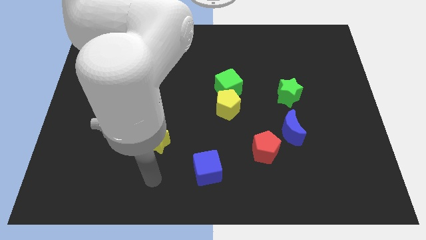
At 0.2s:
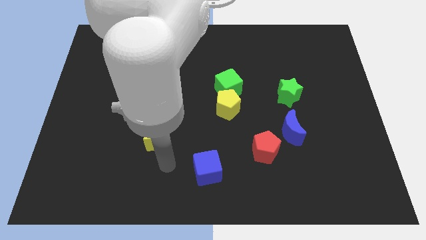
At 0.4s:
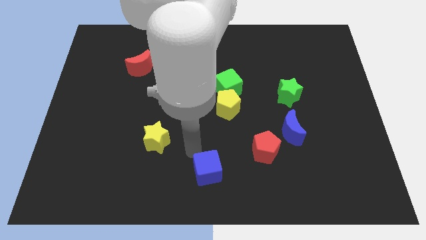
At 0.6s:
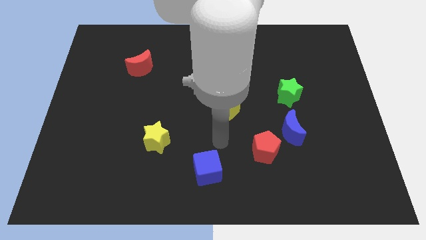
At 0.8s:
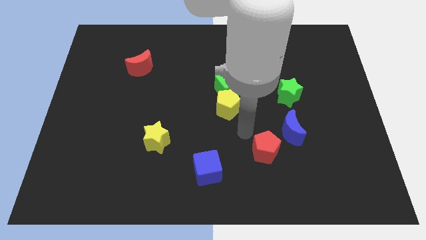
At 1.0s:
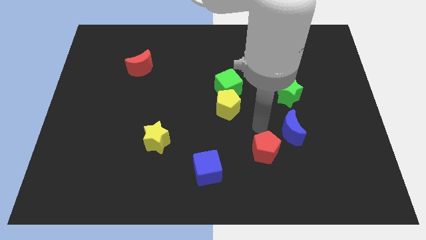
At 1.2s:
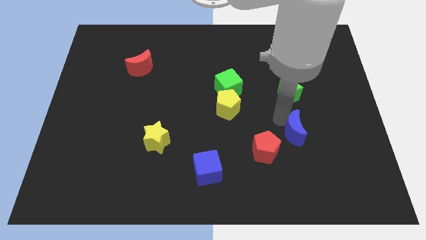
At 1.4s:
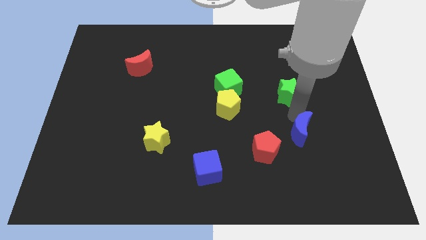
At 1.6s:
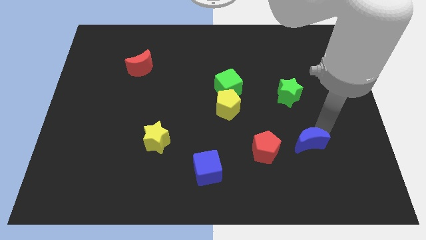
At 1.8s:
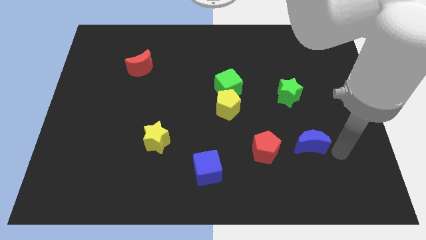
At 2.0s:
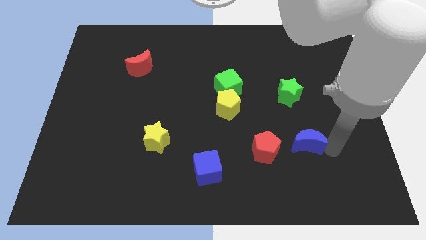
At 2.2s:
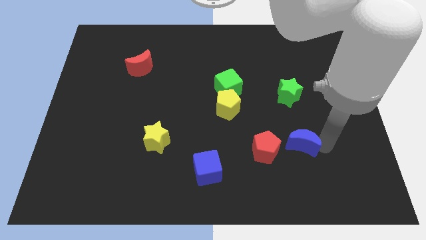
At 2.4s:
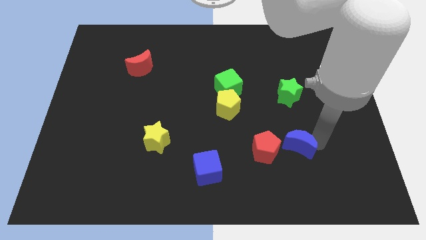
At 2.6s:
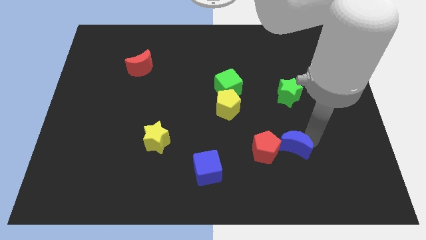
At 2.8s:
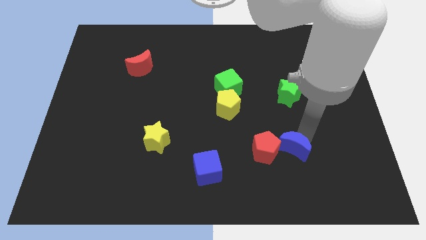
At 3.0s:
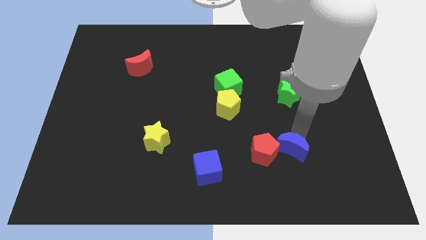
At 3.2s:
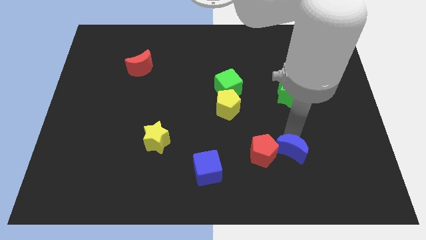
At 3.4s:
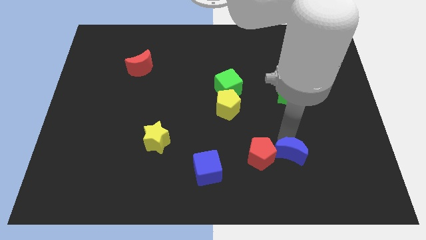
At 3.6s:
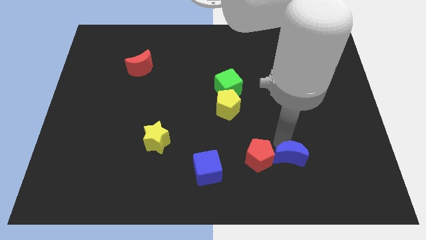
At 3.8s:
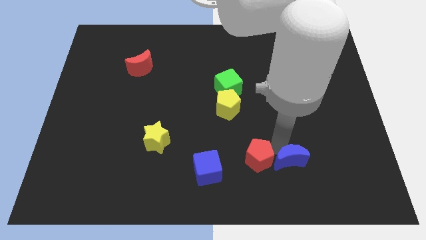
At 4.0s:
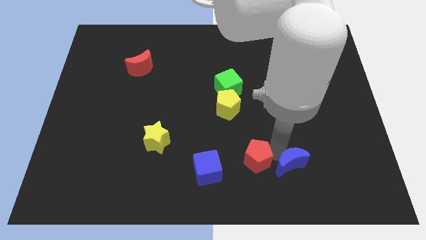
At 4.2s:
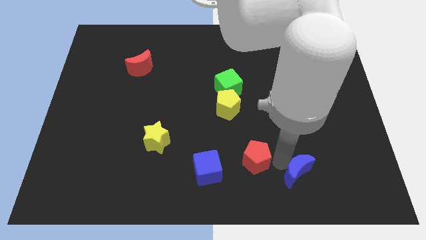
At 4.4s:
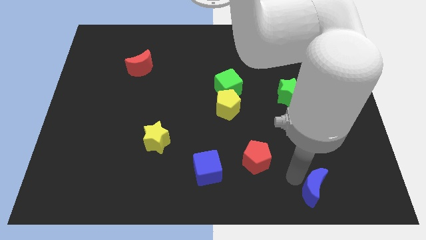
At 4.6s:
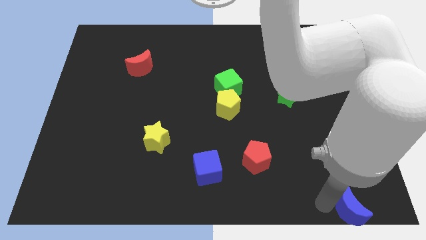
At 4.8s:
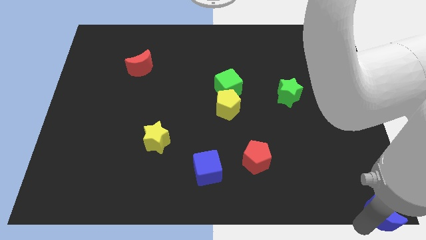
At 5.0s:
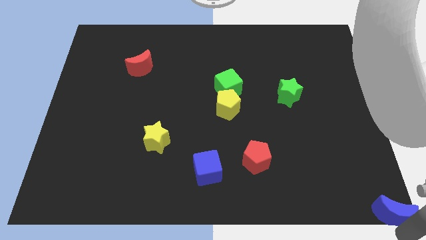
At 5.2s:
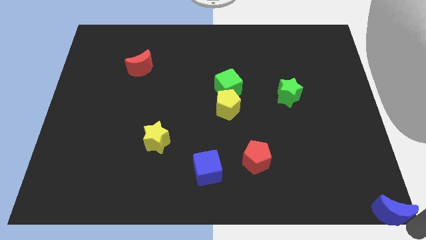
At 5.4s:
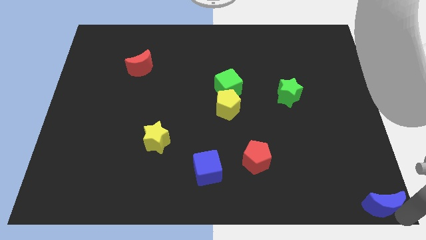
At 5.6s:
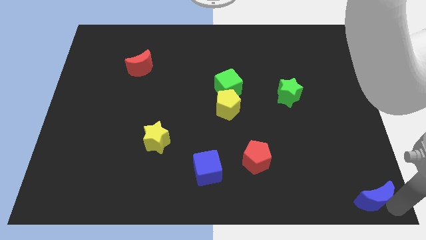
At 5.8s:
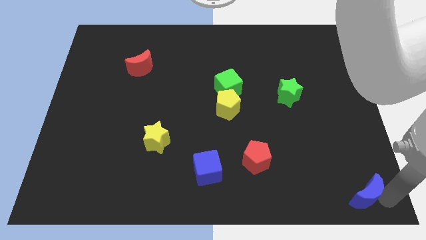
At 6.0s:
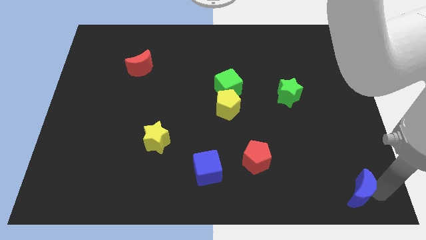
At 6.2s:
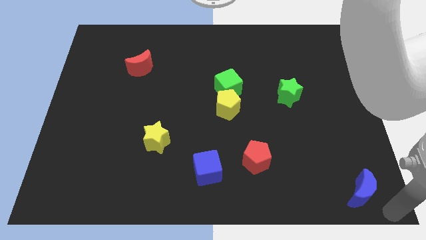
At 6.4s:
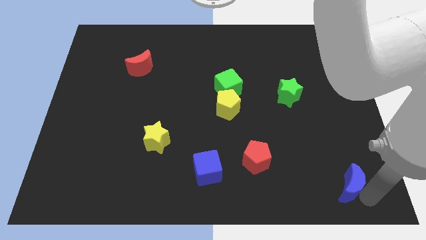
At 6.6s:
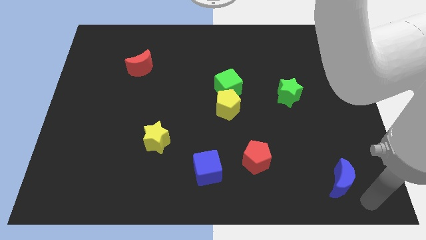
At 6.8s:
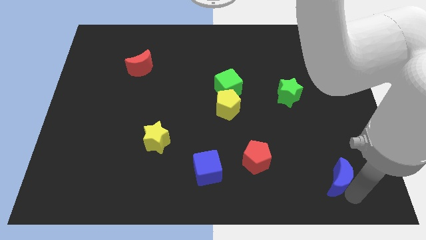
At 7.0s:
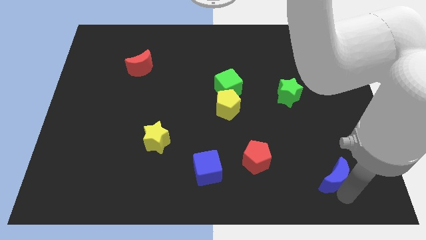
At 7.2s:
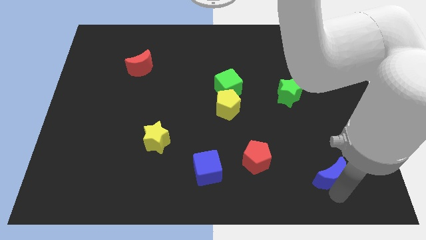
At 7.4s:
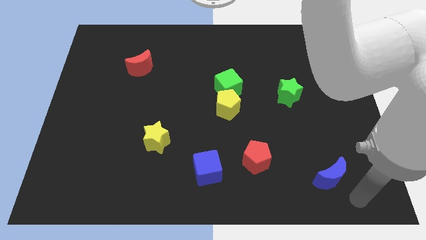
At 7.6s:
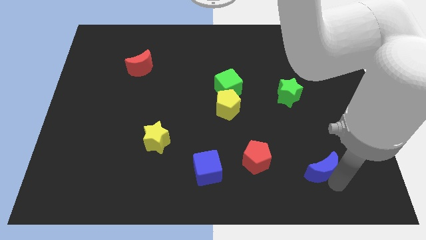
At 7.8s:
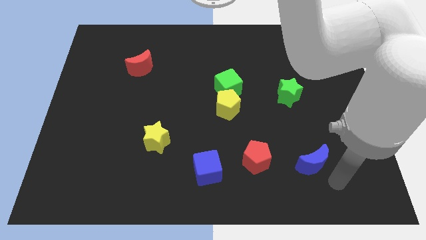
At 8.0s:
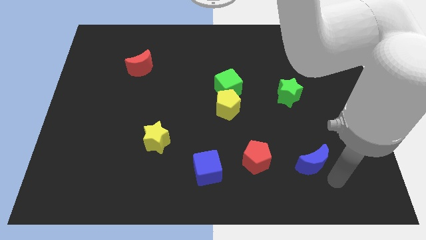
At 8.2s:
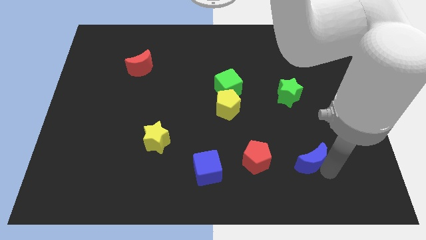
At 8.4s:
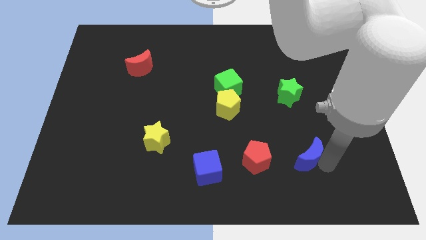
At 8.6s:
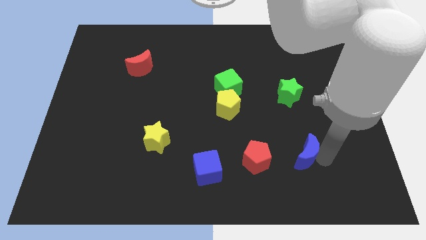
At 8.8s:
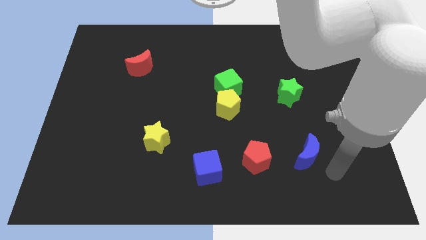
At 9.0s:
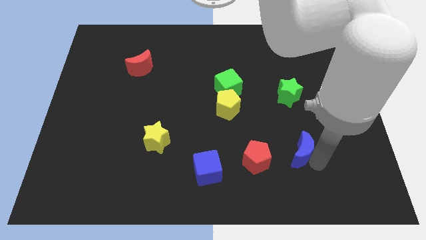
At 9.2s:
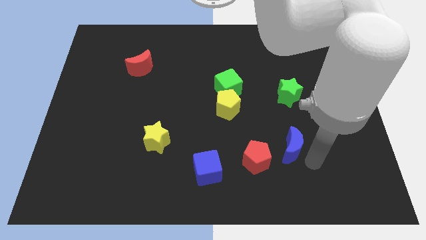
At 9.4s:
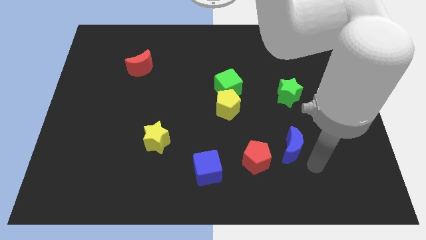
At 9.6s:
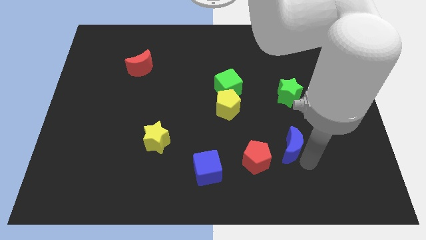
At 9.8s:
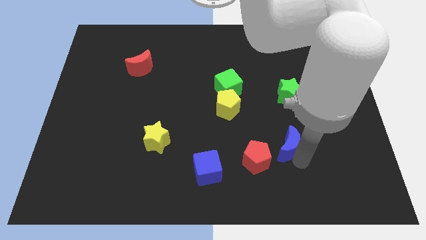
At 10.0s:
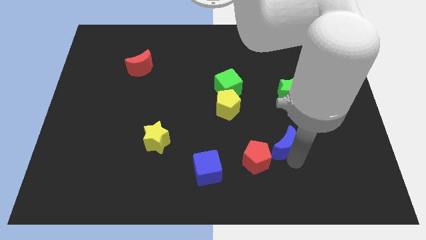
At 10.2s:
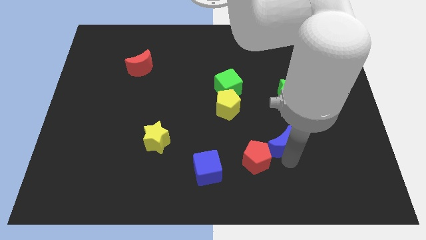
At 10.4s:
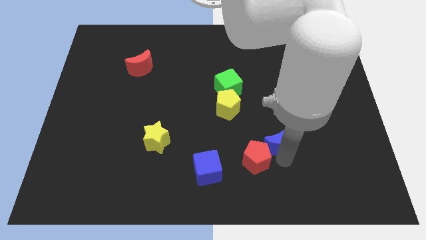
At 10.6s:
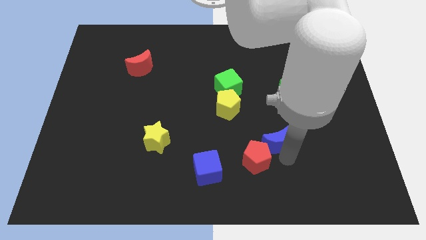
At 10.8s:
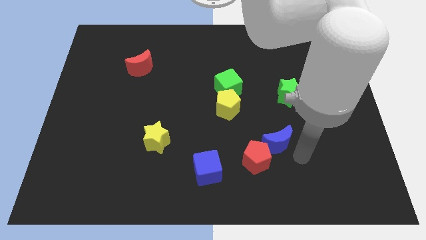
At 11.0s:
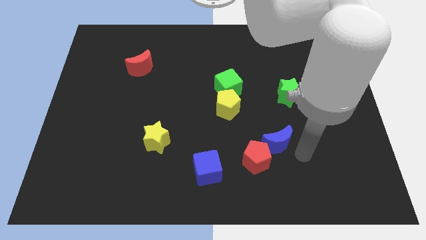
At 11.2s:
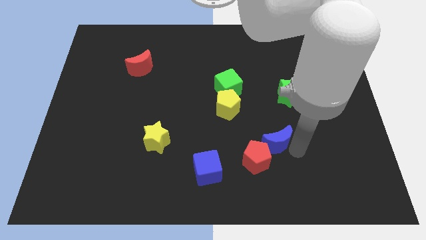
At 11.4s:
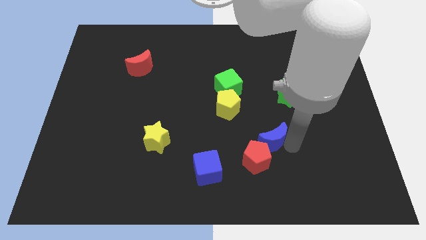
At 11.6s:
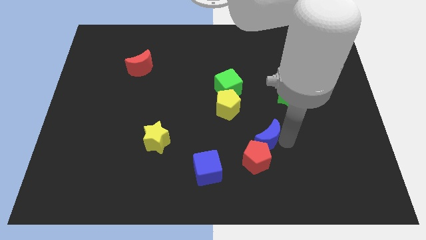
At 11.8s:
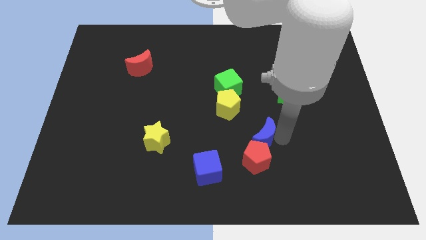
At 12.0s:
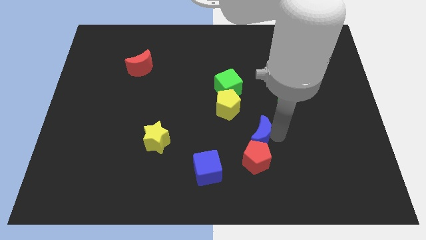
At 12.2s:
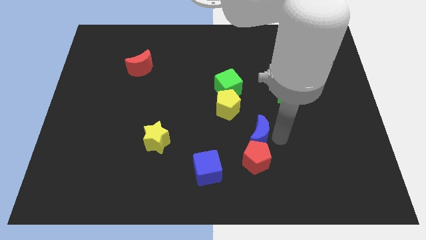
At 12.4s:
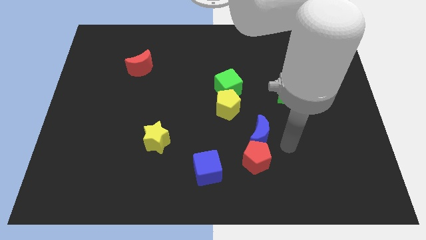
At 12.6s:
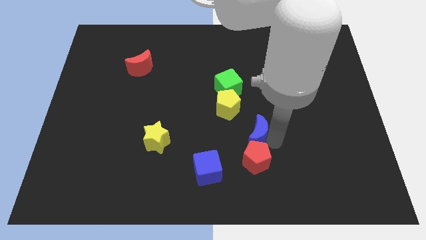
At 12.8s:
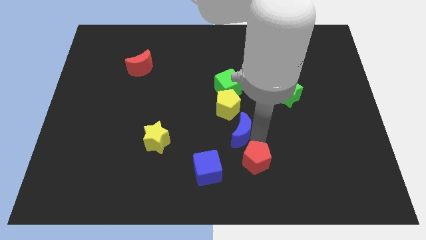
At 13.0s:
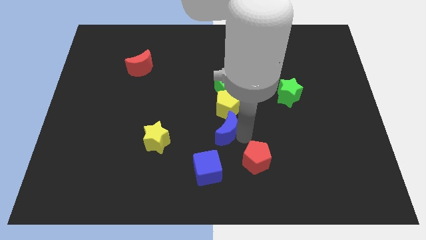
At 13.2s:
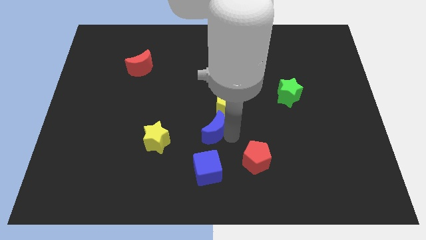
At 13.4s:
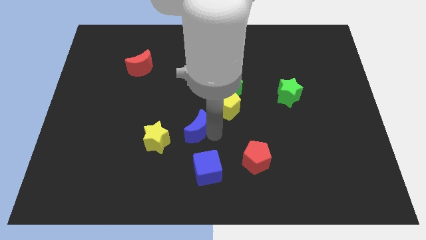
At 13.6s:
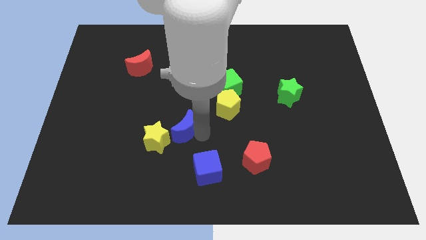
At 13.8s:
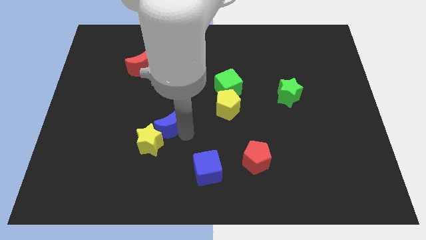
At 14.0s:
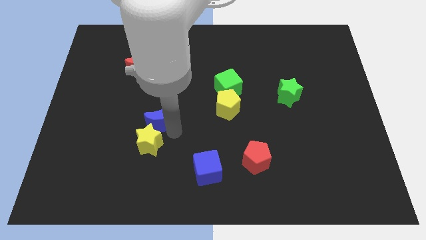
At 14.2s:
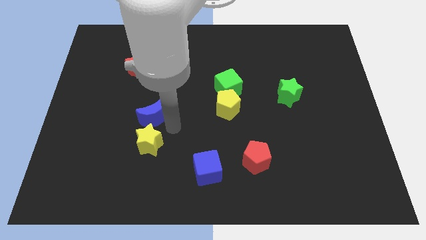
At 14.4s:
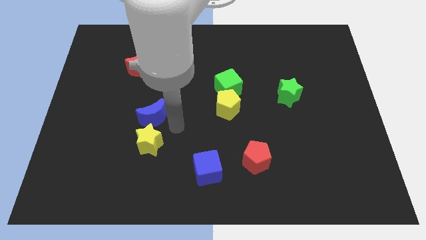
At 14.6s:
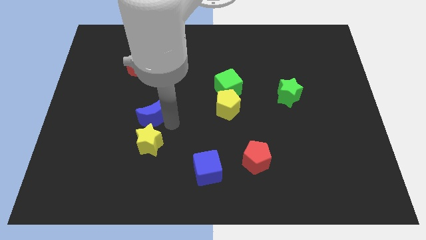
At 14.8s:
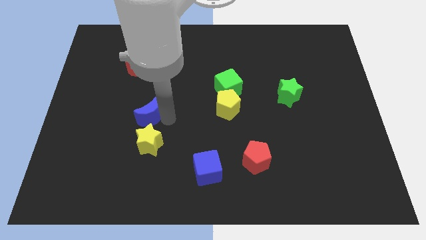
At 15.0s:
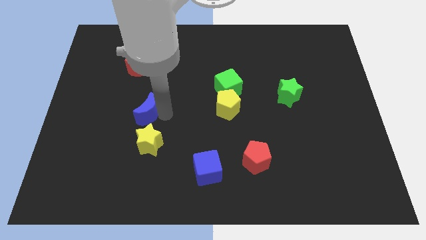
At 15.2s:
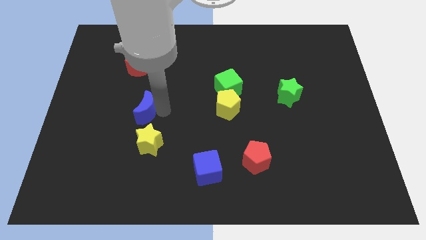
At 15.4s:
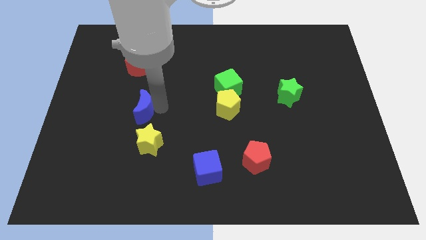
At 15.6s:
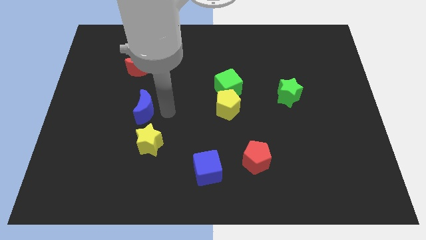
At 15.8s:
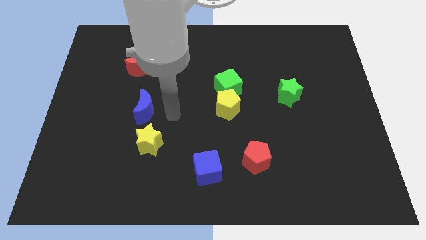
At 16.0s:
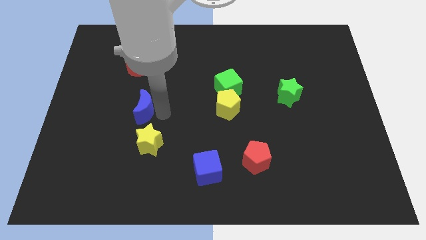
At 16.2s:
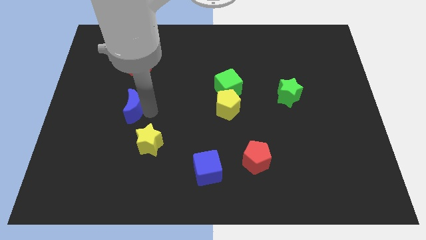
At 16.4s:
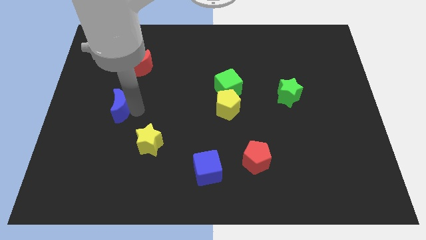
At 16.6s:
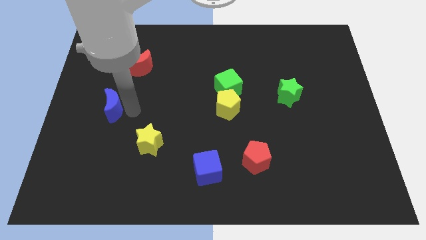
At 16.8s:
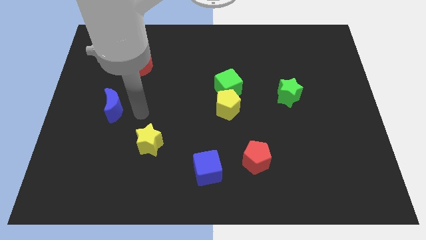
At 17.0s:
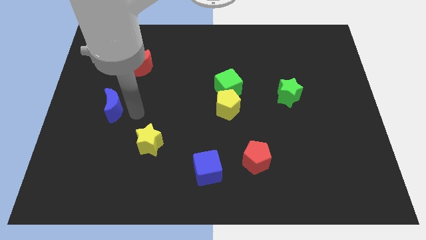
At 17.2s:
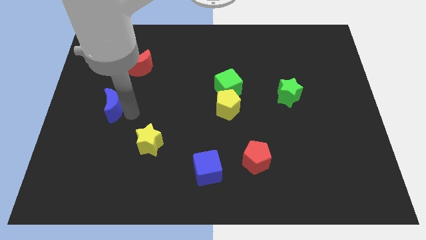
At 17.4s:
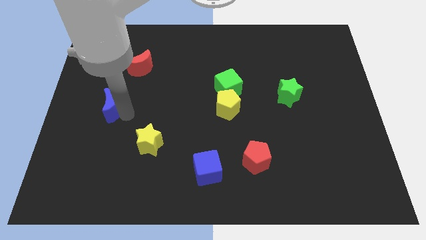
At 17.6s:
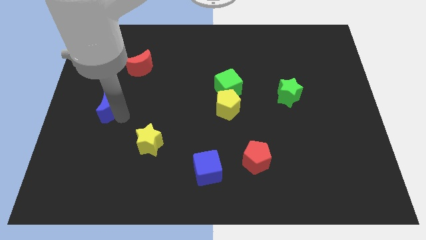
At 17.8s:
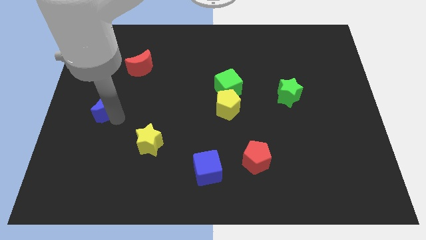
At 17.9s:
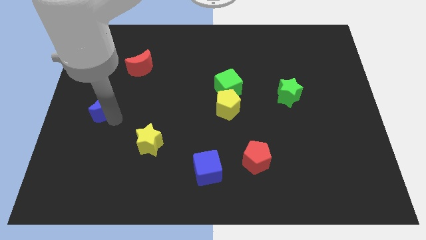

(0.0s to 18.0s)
move the blue moon to the center left
